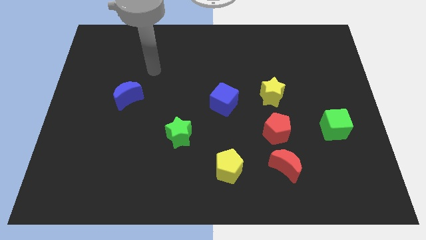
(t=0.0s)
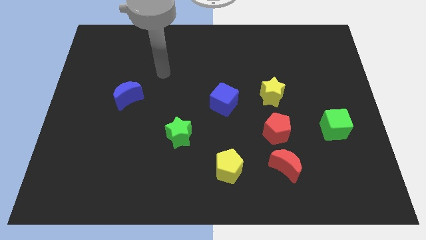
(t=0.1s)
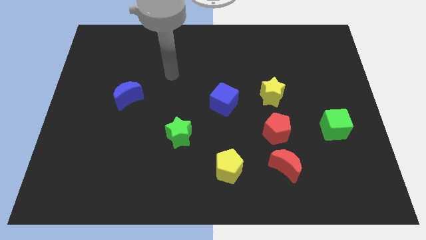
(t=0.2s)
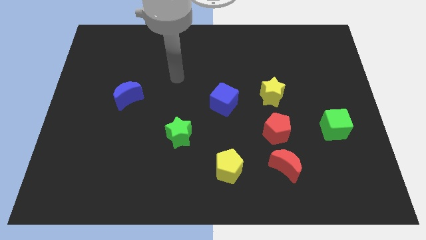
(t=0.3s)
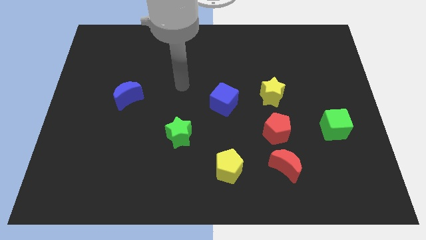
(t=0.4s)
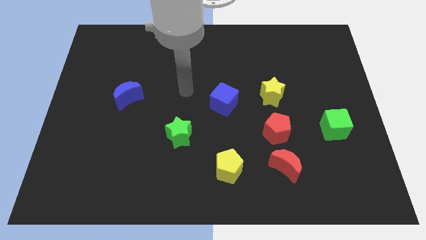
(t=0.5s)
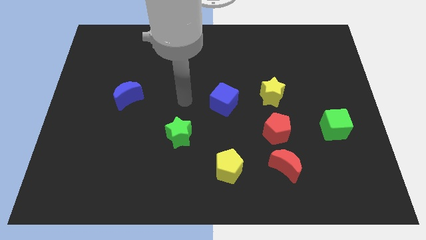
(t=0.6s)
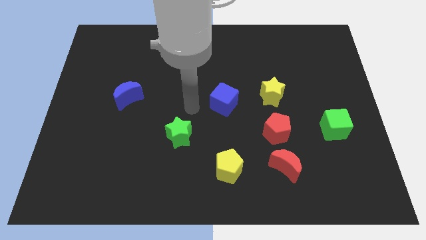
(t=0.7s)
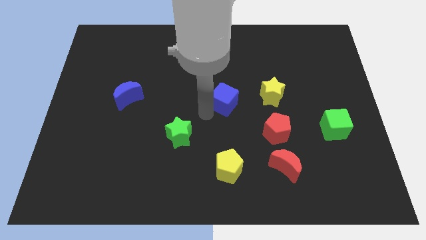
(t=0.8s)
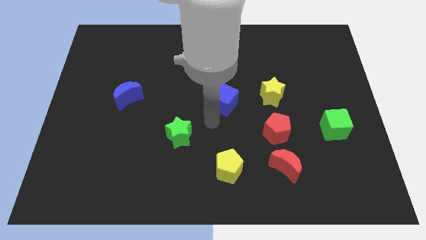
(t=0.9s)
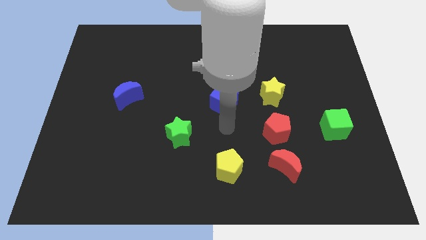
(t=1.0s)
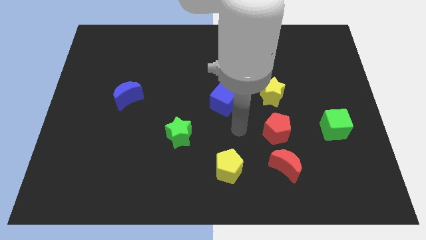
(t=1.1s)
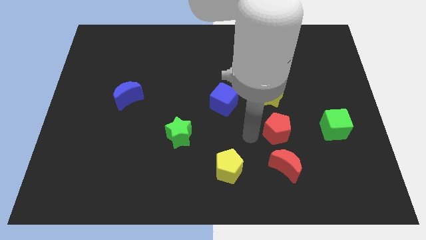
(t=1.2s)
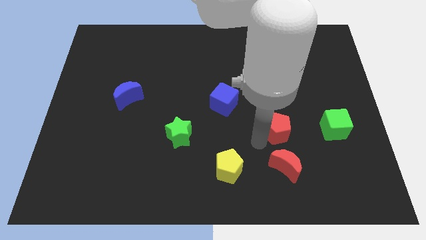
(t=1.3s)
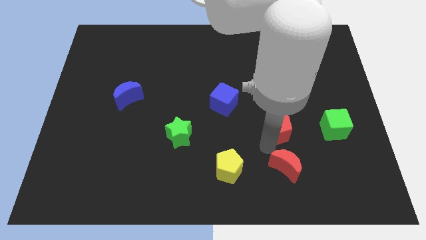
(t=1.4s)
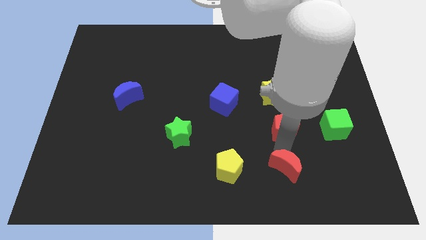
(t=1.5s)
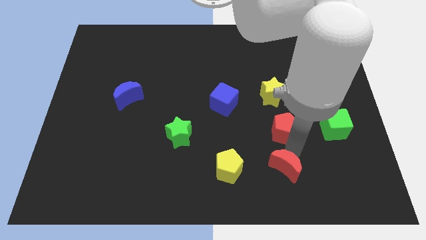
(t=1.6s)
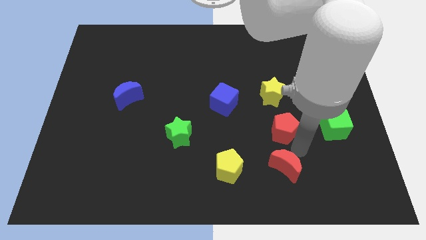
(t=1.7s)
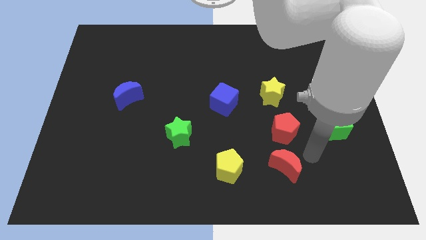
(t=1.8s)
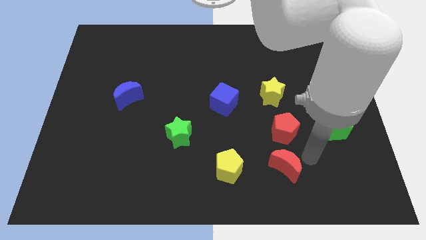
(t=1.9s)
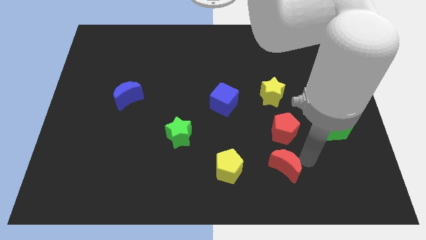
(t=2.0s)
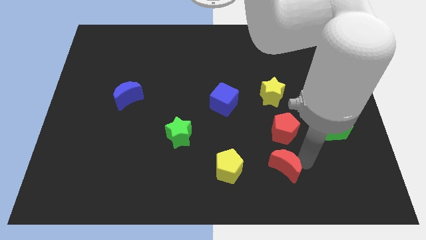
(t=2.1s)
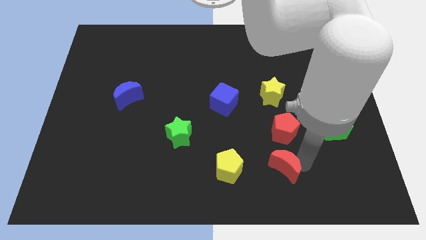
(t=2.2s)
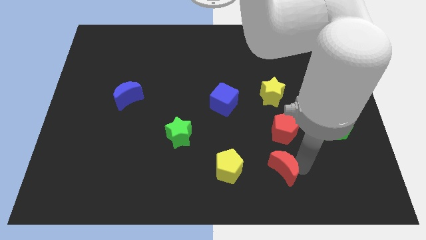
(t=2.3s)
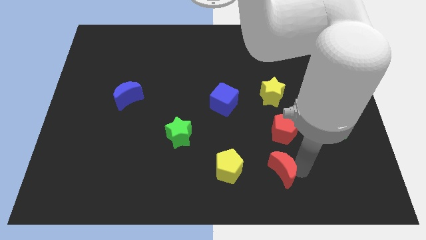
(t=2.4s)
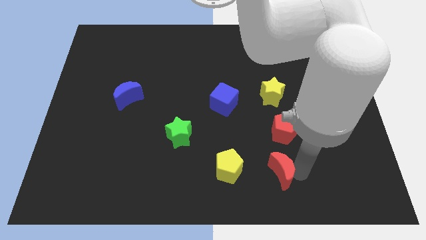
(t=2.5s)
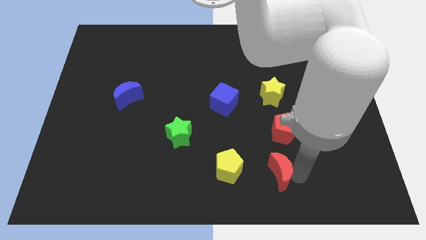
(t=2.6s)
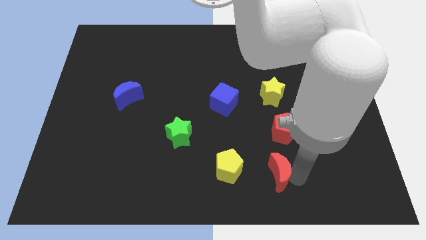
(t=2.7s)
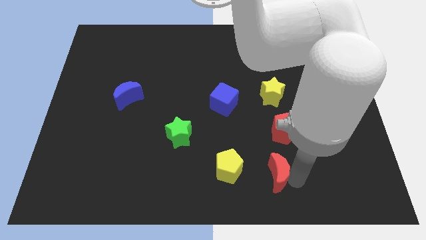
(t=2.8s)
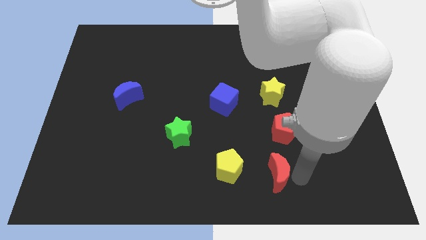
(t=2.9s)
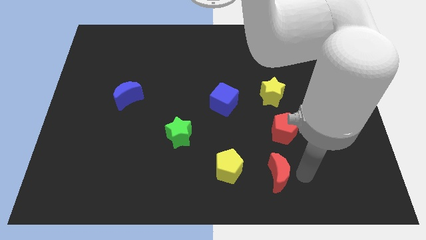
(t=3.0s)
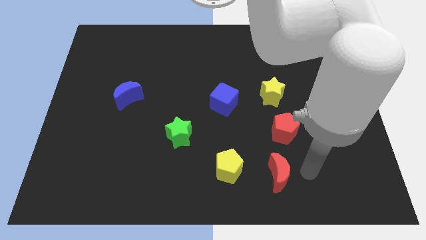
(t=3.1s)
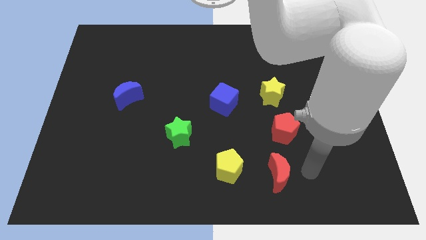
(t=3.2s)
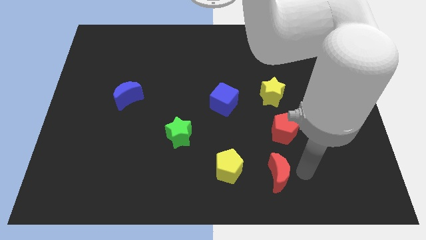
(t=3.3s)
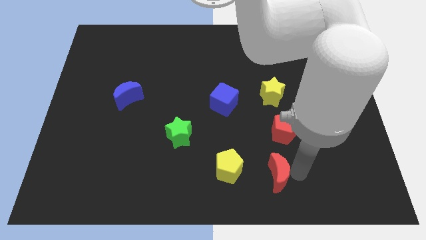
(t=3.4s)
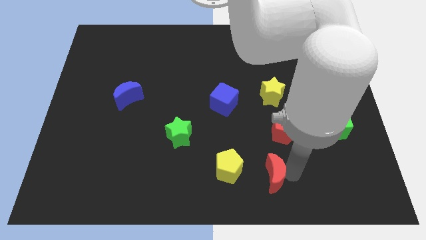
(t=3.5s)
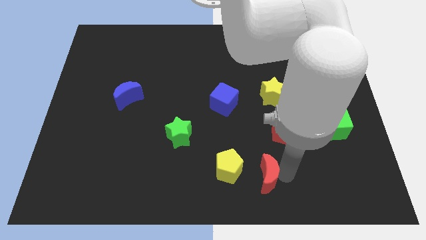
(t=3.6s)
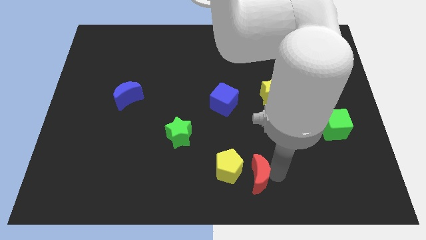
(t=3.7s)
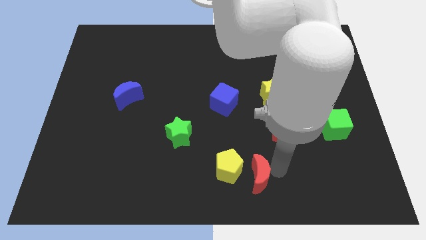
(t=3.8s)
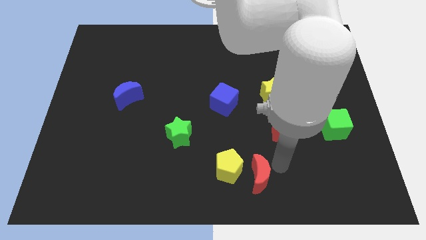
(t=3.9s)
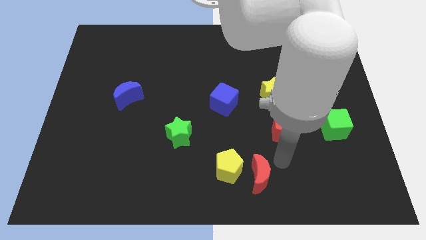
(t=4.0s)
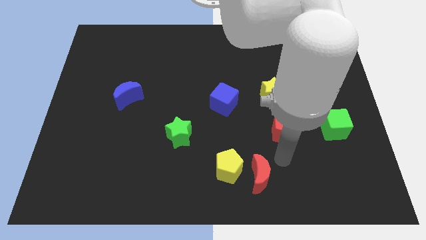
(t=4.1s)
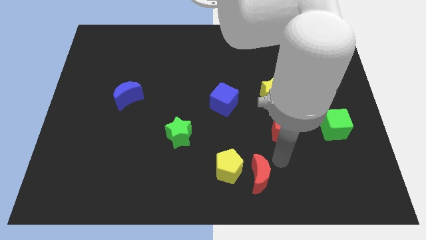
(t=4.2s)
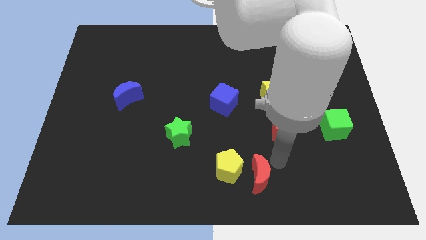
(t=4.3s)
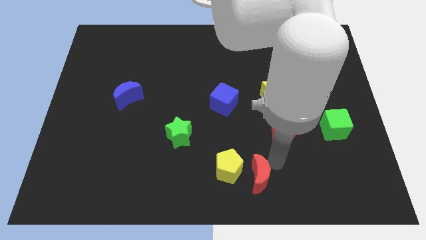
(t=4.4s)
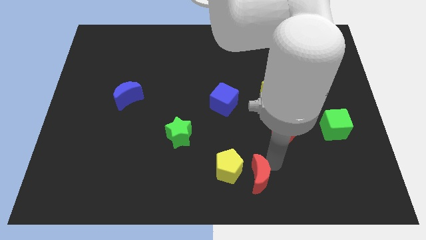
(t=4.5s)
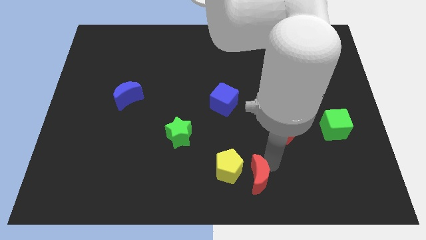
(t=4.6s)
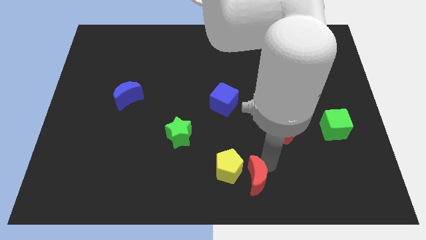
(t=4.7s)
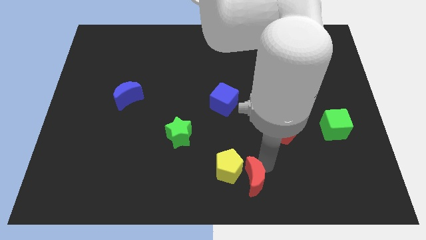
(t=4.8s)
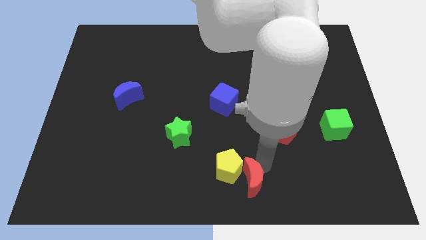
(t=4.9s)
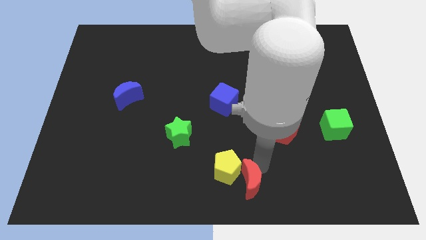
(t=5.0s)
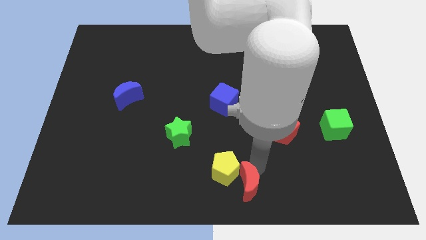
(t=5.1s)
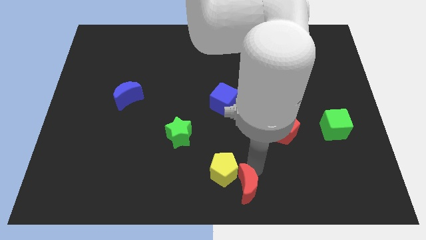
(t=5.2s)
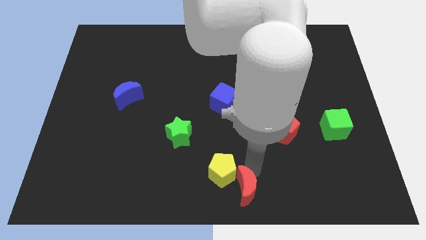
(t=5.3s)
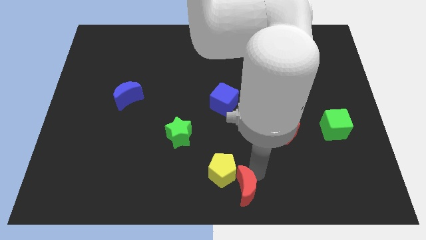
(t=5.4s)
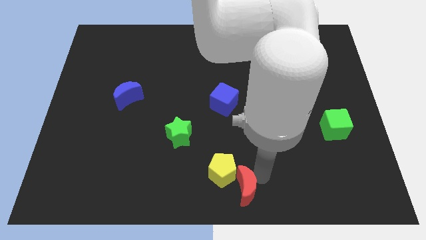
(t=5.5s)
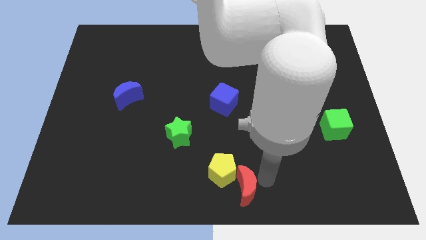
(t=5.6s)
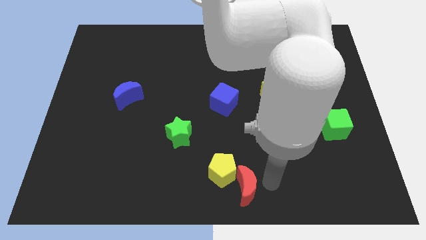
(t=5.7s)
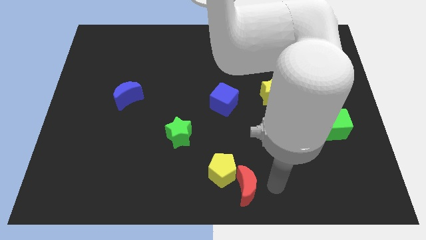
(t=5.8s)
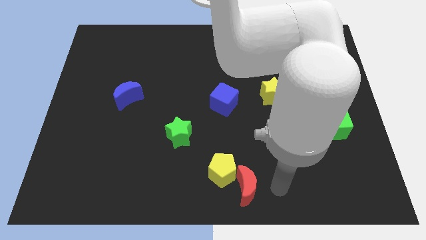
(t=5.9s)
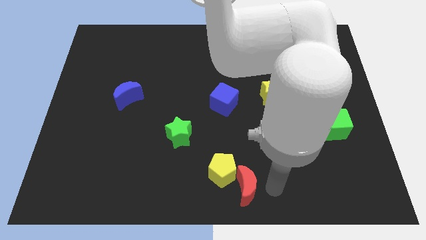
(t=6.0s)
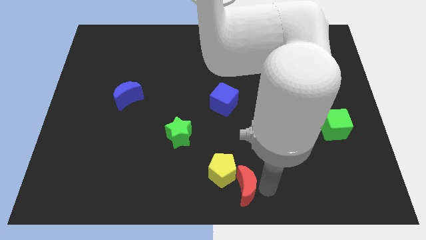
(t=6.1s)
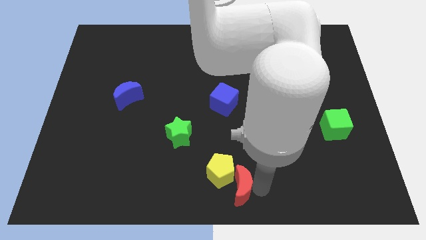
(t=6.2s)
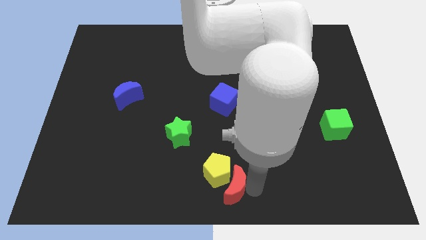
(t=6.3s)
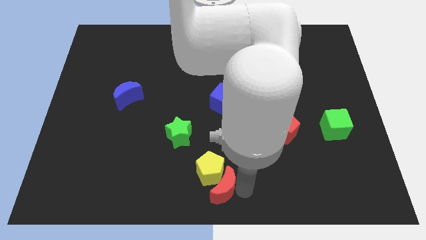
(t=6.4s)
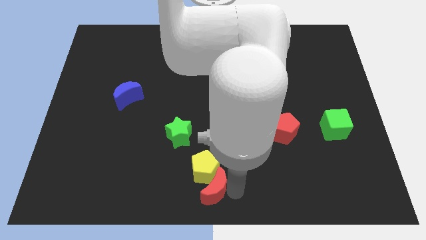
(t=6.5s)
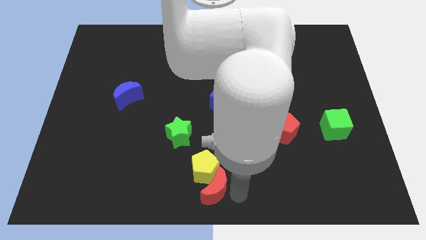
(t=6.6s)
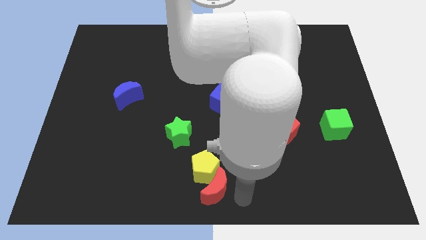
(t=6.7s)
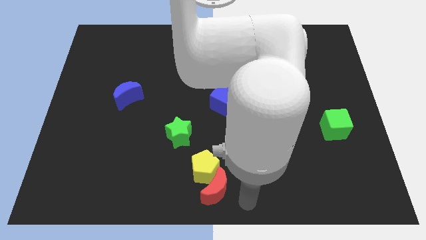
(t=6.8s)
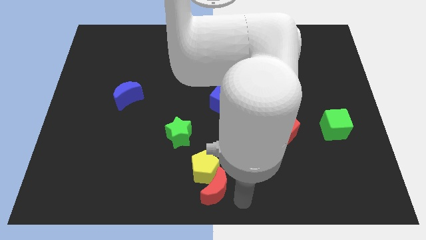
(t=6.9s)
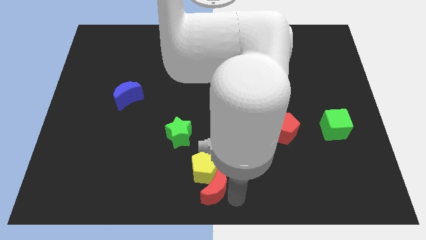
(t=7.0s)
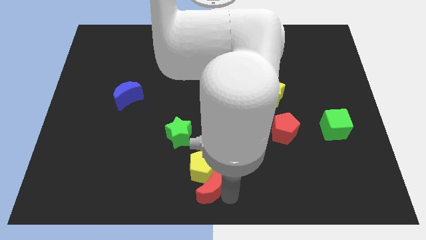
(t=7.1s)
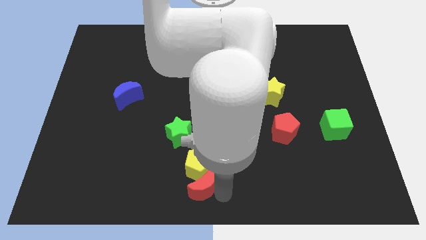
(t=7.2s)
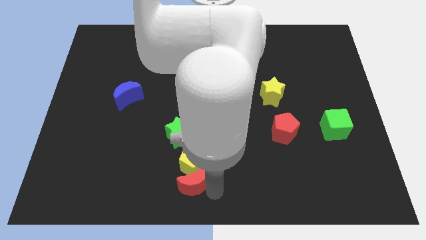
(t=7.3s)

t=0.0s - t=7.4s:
push the red moon below the green star
